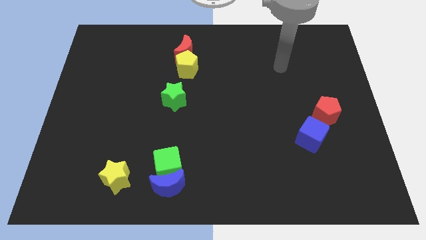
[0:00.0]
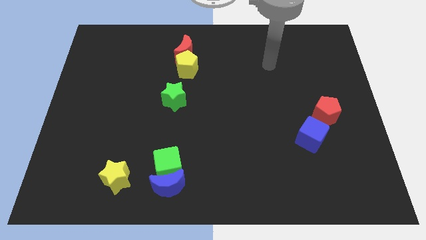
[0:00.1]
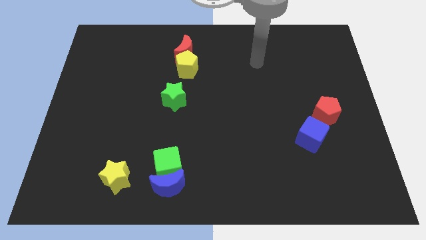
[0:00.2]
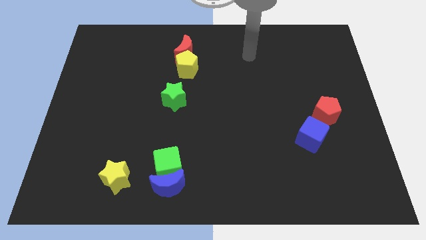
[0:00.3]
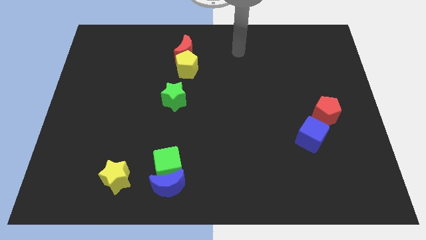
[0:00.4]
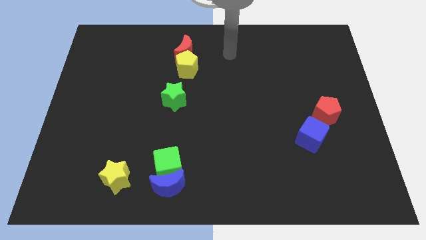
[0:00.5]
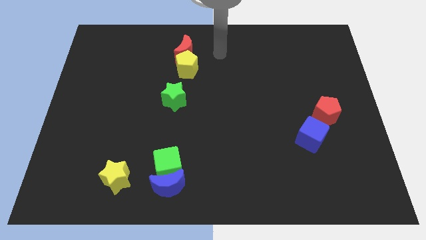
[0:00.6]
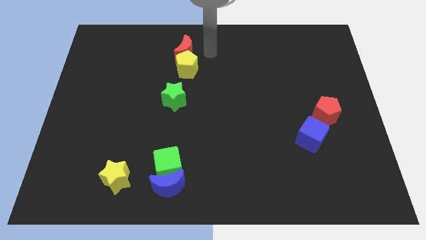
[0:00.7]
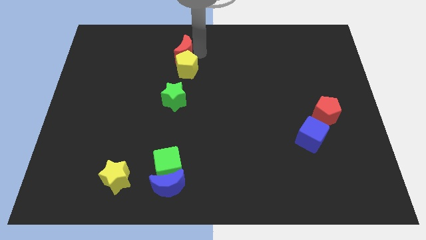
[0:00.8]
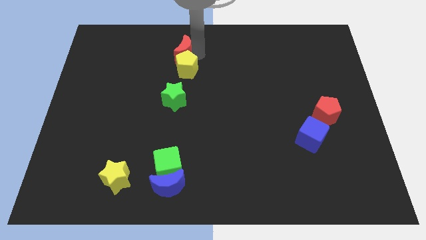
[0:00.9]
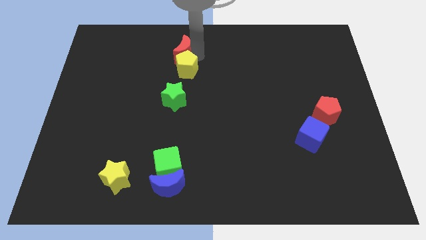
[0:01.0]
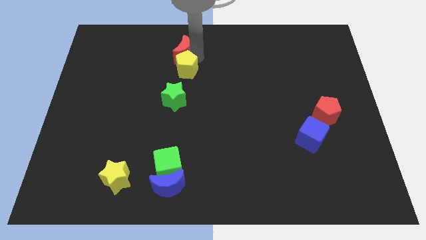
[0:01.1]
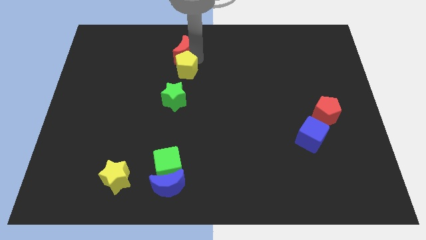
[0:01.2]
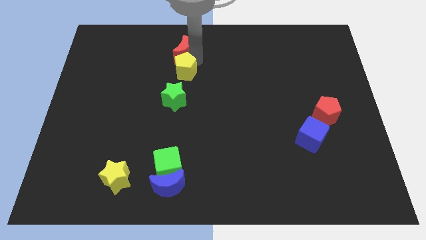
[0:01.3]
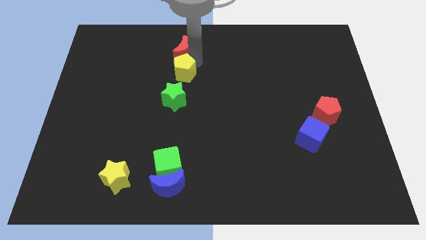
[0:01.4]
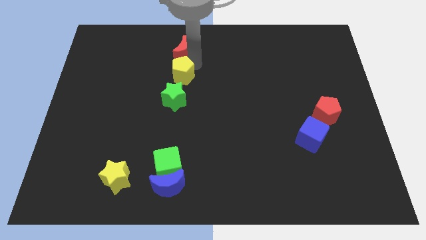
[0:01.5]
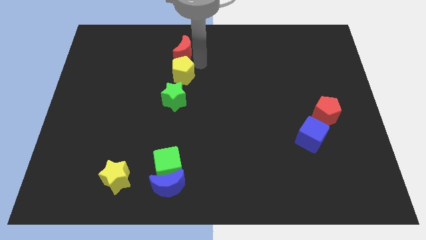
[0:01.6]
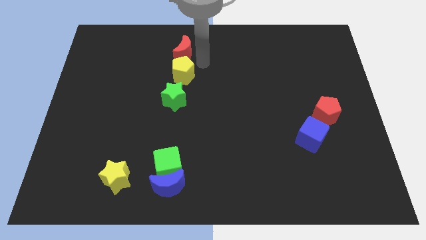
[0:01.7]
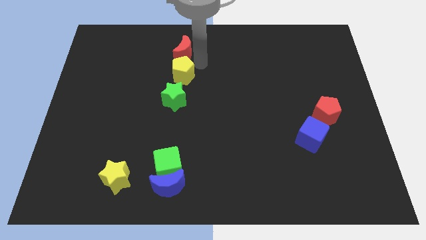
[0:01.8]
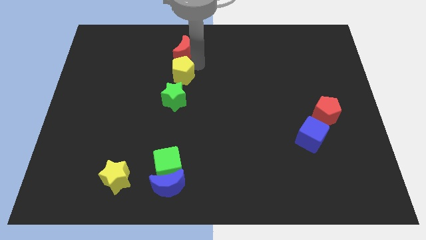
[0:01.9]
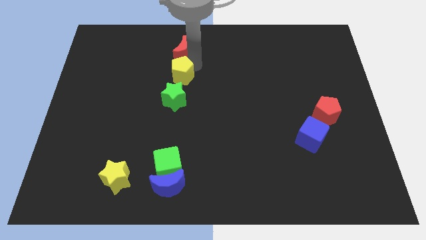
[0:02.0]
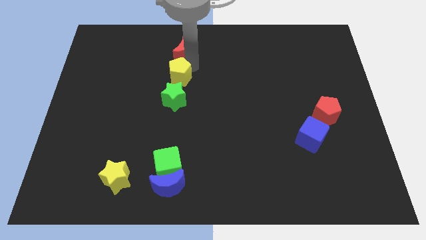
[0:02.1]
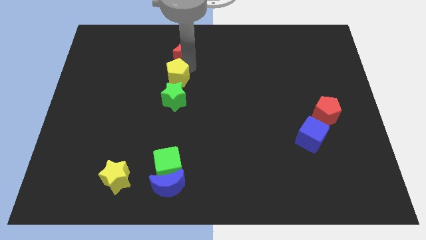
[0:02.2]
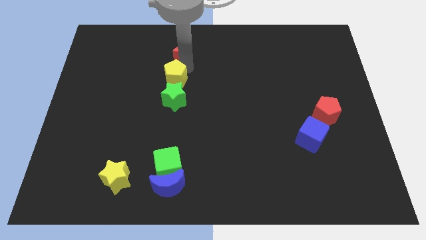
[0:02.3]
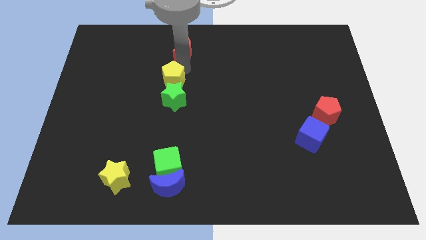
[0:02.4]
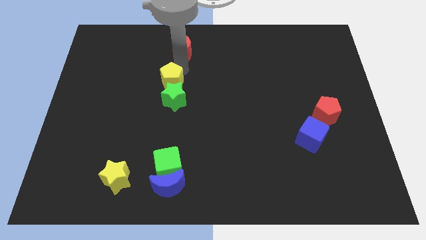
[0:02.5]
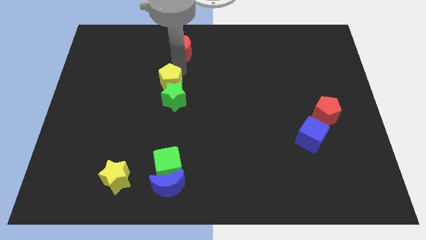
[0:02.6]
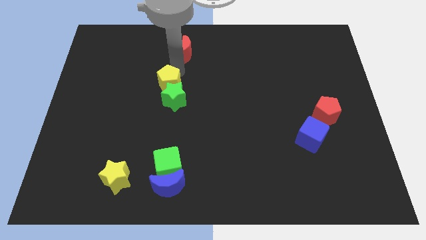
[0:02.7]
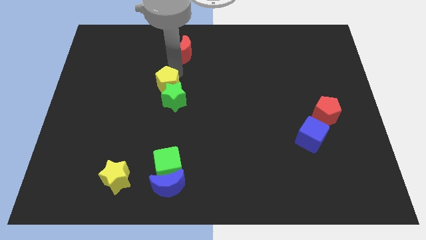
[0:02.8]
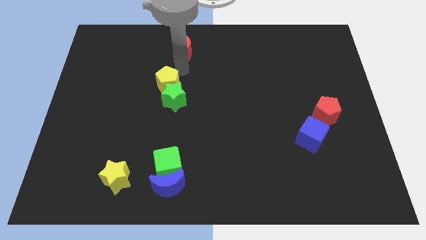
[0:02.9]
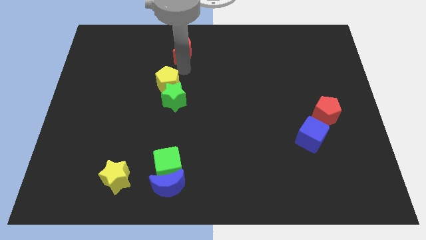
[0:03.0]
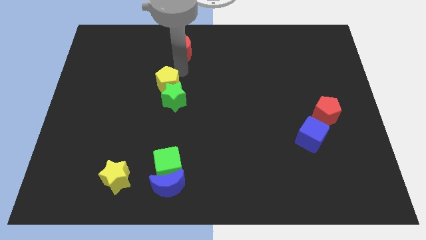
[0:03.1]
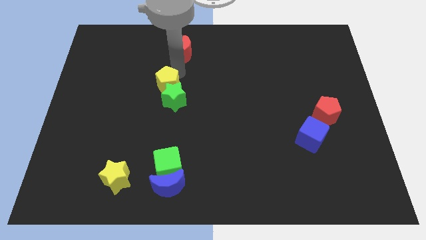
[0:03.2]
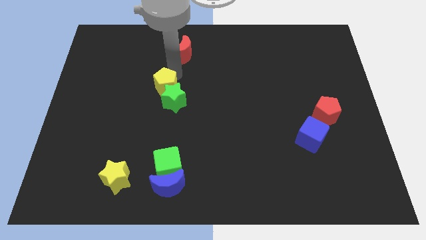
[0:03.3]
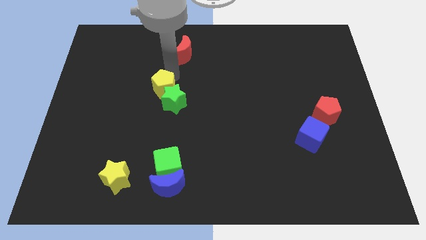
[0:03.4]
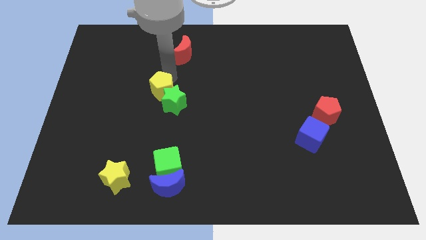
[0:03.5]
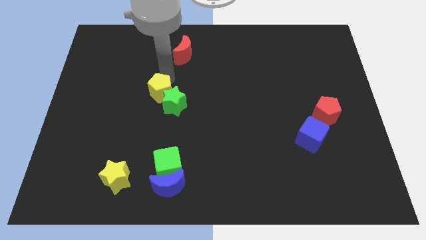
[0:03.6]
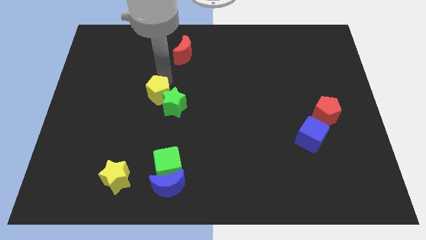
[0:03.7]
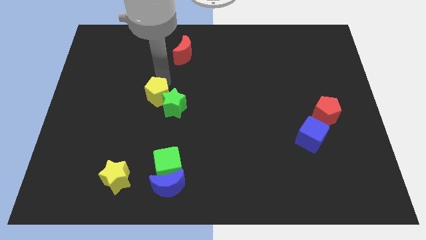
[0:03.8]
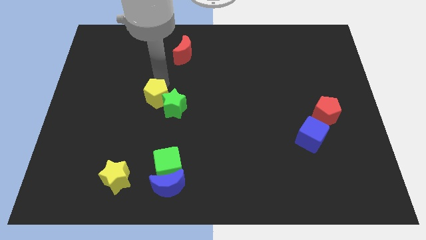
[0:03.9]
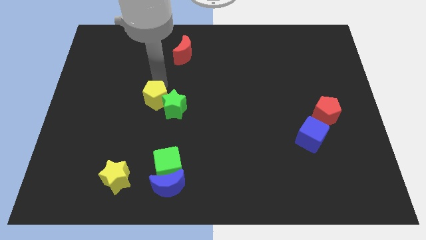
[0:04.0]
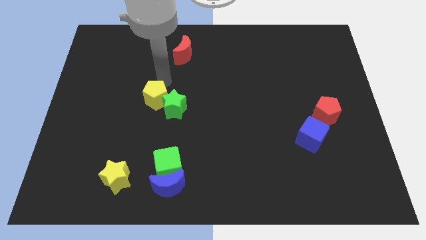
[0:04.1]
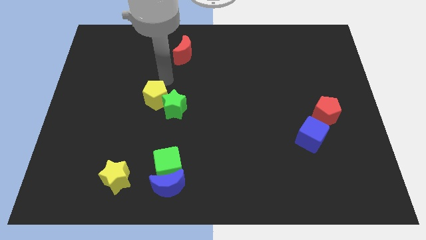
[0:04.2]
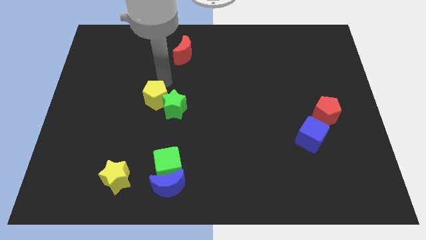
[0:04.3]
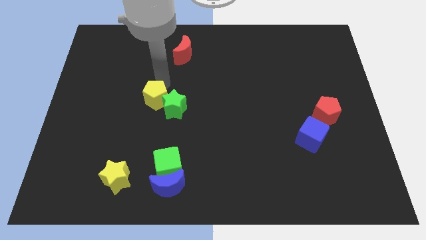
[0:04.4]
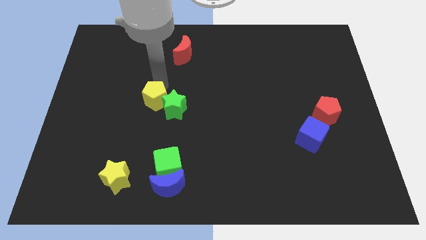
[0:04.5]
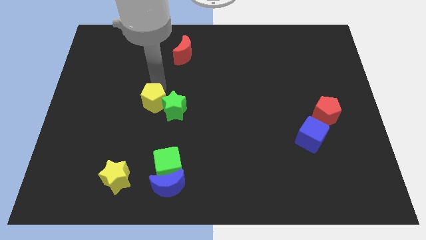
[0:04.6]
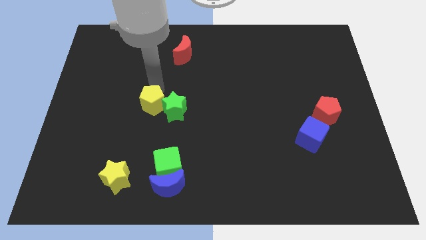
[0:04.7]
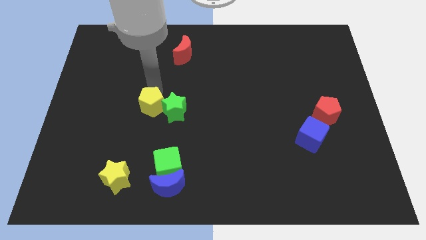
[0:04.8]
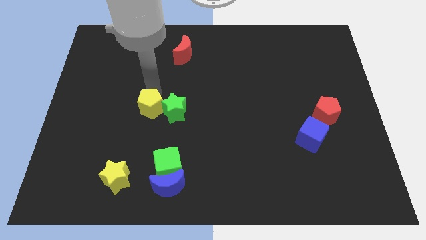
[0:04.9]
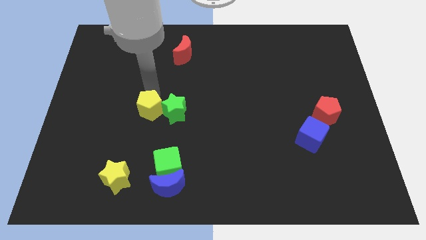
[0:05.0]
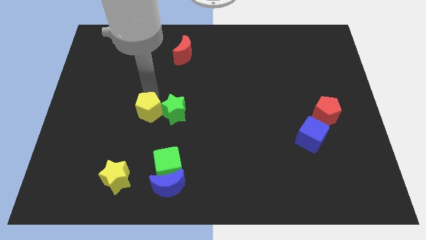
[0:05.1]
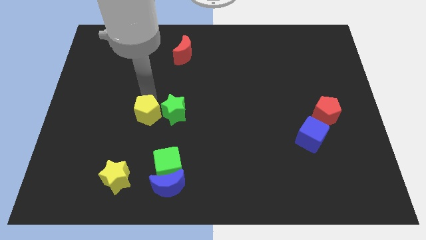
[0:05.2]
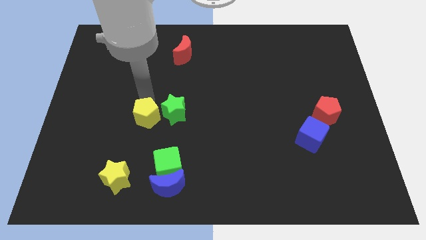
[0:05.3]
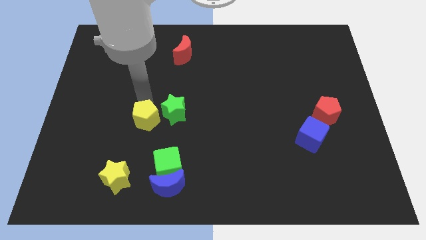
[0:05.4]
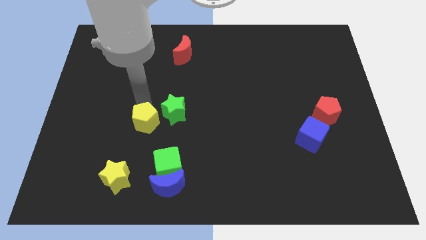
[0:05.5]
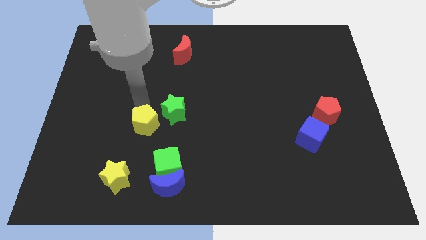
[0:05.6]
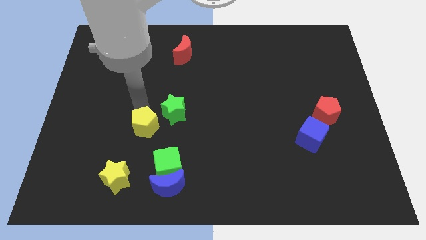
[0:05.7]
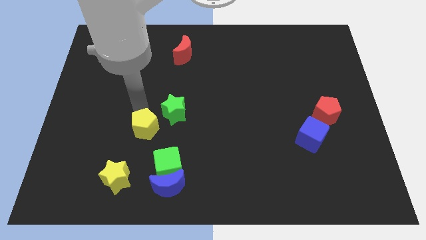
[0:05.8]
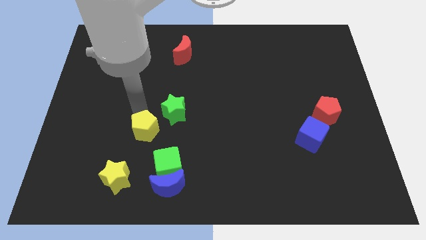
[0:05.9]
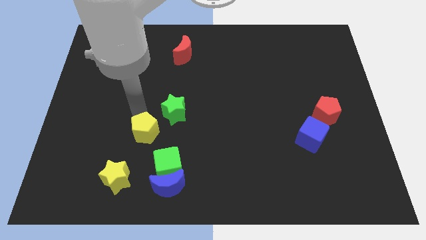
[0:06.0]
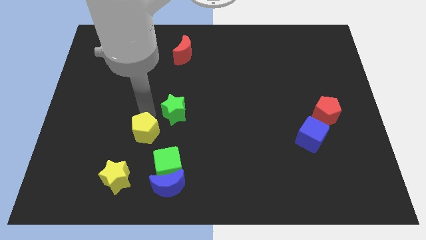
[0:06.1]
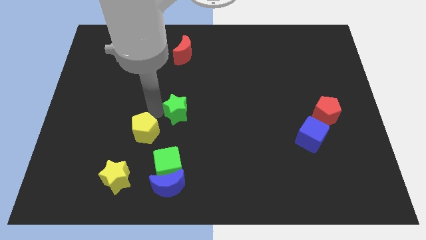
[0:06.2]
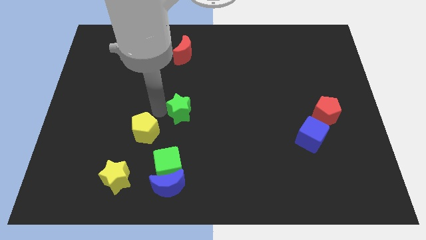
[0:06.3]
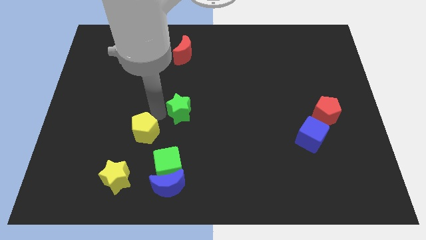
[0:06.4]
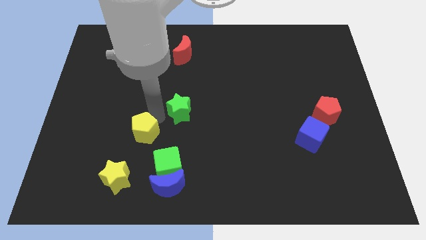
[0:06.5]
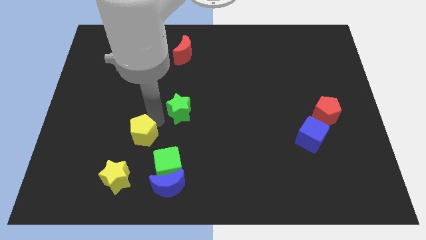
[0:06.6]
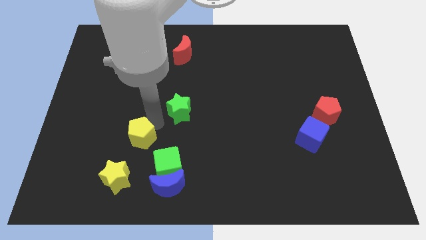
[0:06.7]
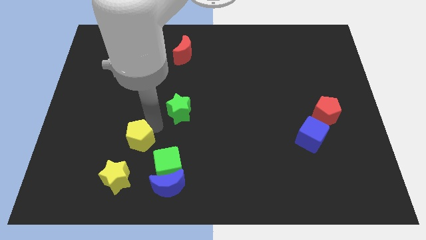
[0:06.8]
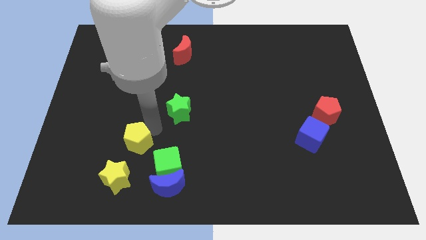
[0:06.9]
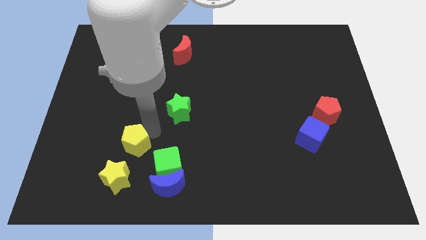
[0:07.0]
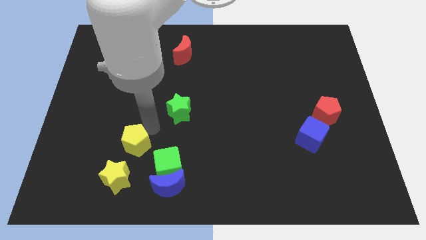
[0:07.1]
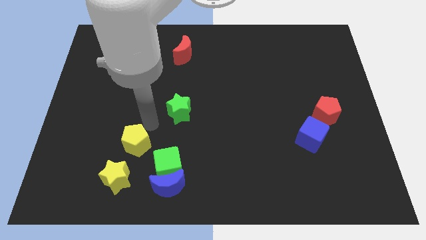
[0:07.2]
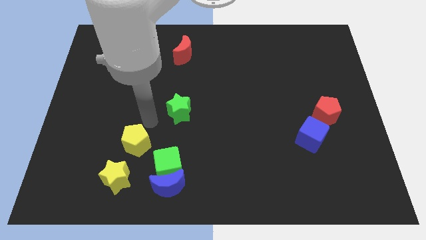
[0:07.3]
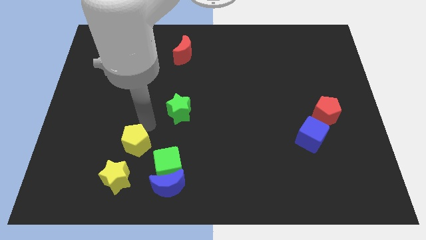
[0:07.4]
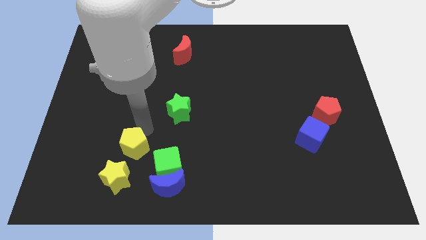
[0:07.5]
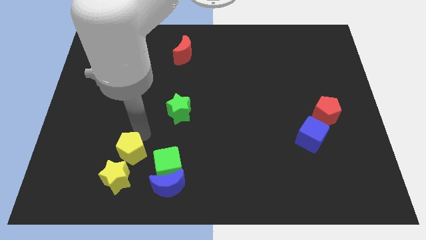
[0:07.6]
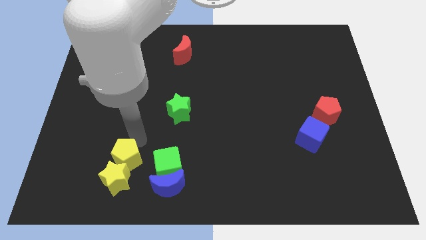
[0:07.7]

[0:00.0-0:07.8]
move the yellow pentagon close to the yellow star
